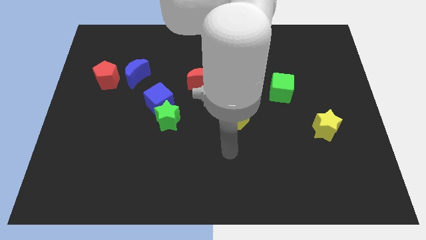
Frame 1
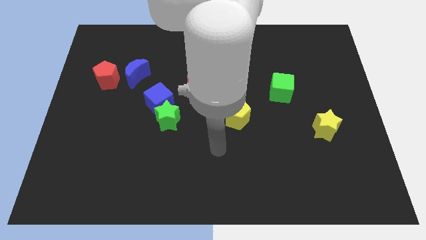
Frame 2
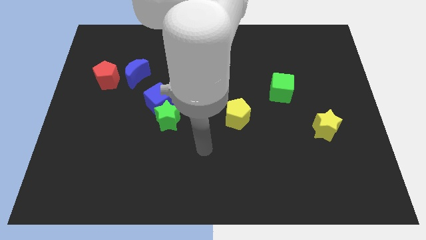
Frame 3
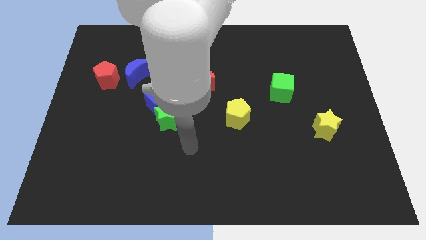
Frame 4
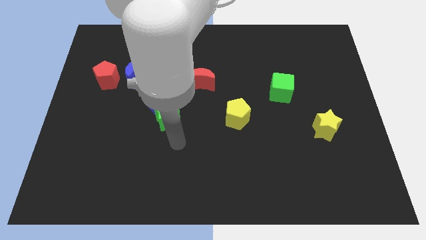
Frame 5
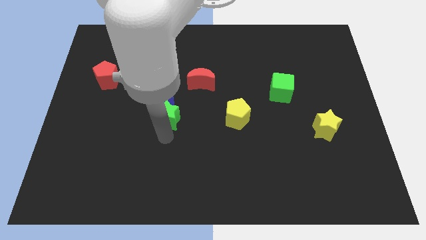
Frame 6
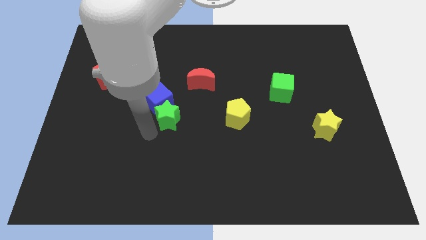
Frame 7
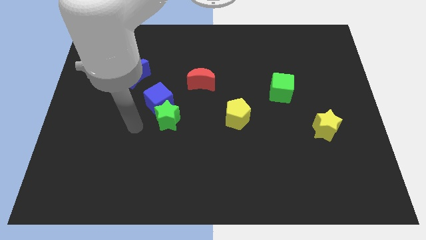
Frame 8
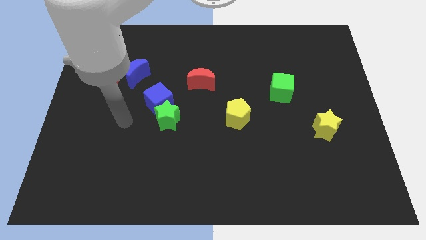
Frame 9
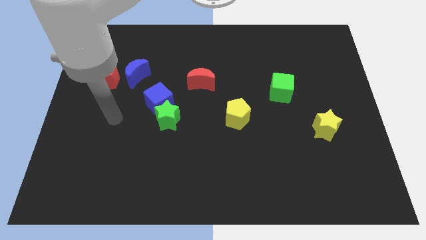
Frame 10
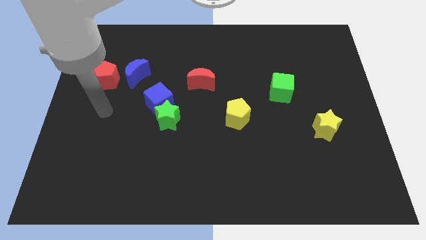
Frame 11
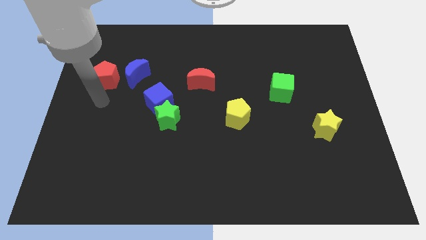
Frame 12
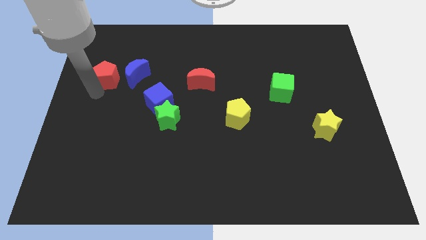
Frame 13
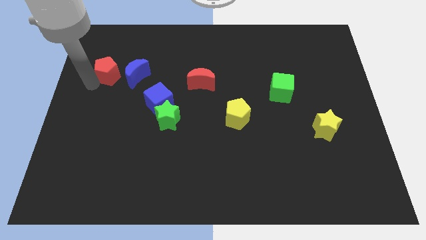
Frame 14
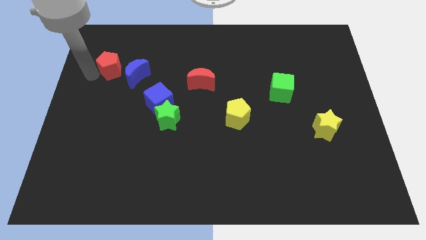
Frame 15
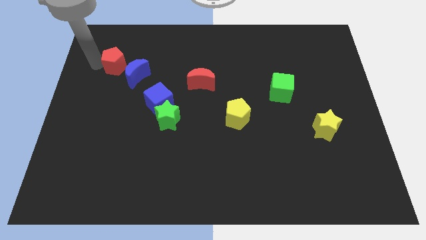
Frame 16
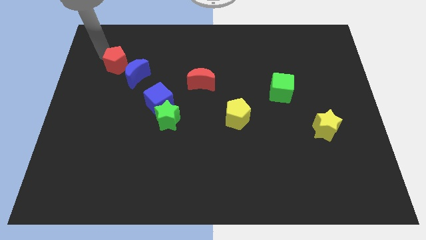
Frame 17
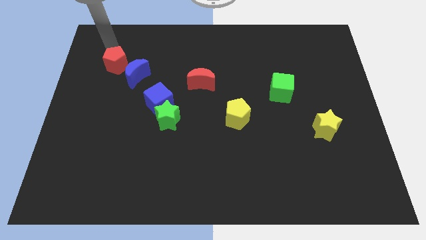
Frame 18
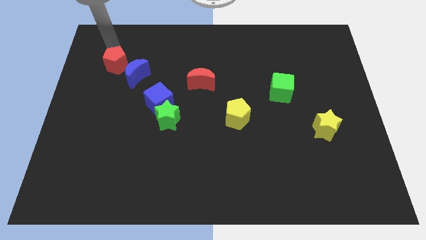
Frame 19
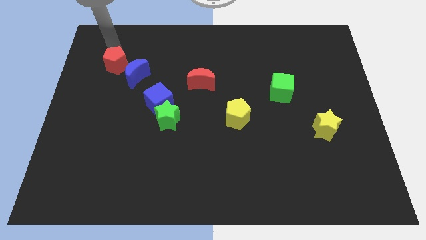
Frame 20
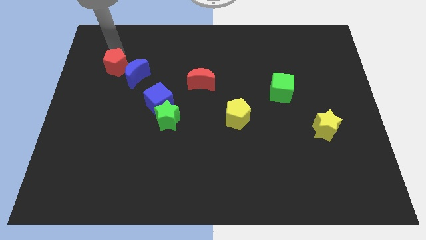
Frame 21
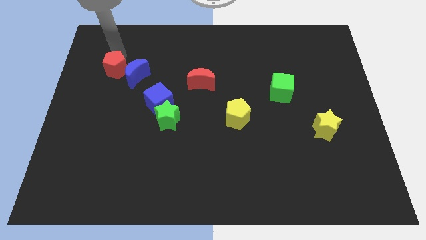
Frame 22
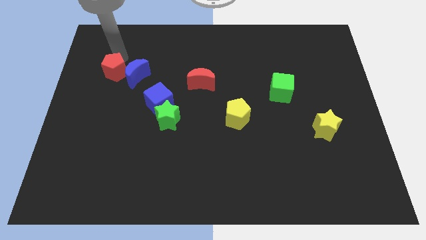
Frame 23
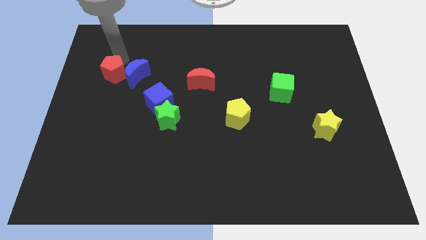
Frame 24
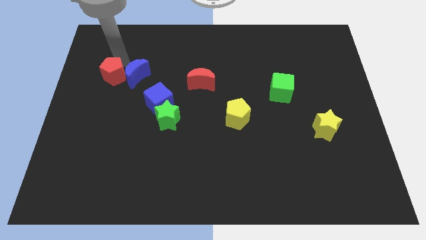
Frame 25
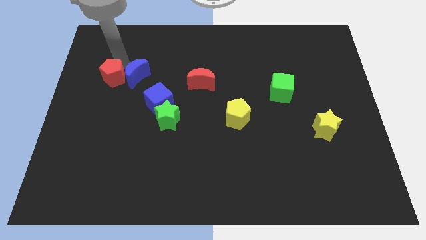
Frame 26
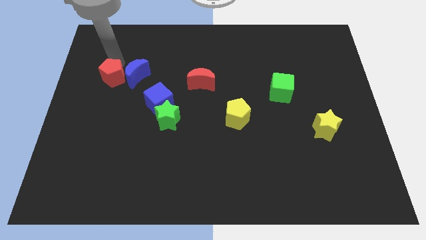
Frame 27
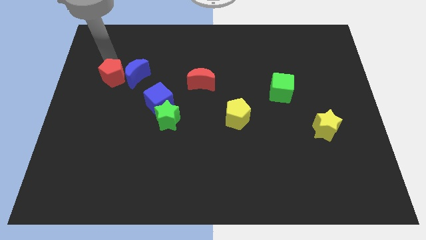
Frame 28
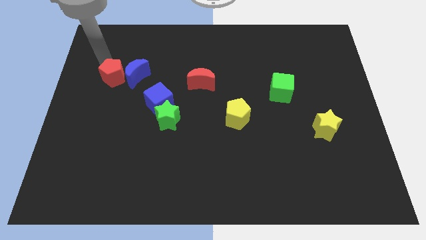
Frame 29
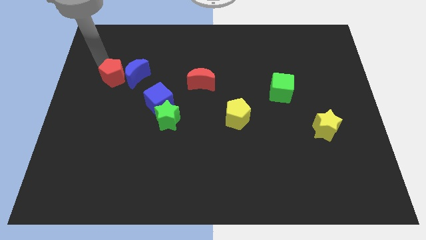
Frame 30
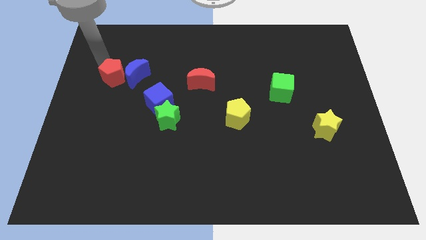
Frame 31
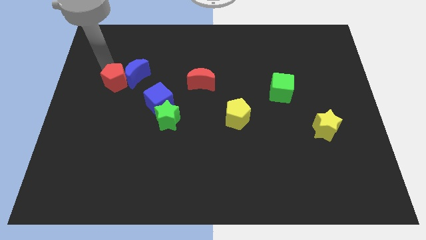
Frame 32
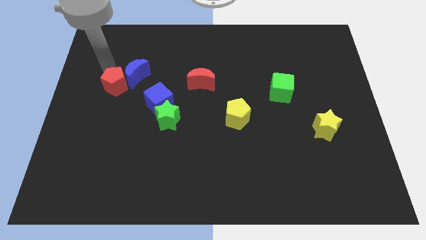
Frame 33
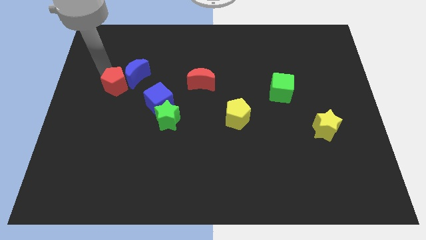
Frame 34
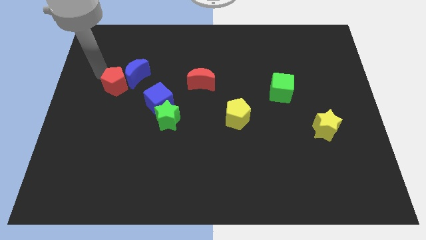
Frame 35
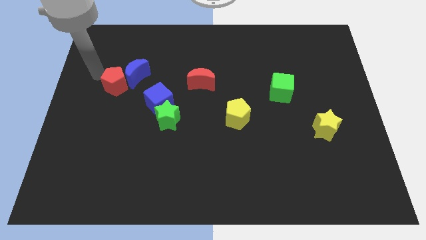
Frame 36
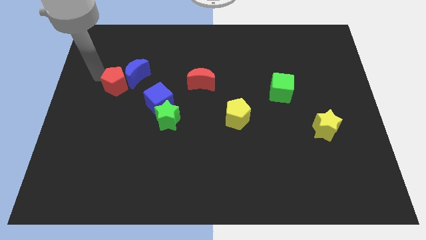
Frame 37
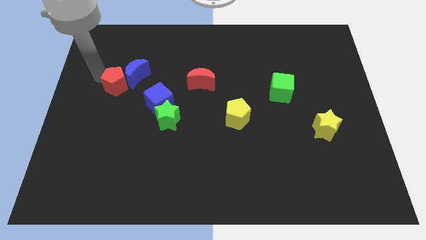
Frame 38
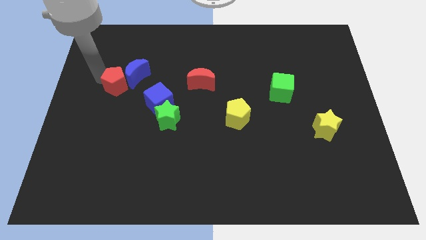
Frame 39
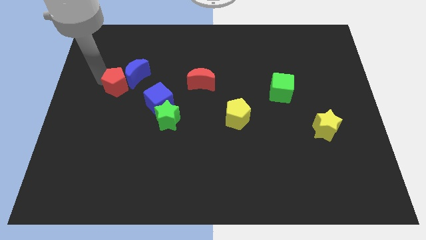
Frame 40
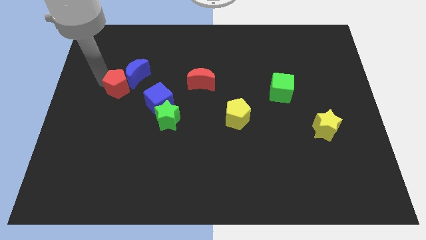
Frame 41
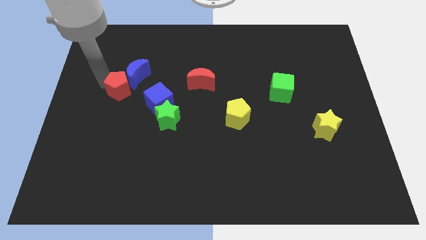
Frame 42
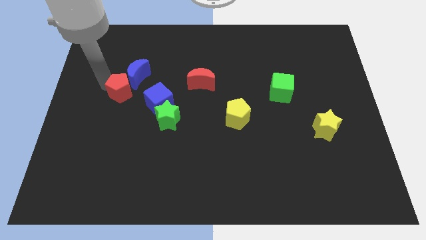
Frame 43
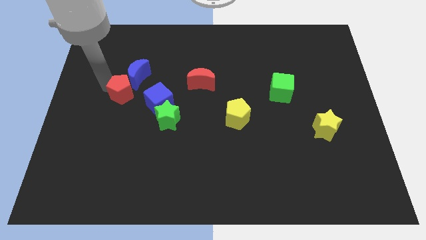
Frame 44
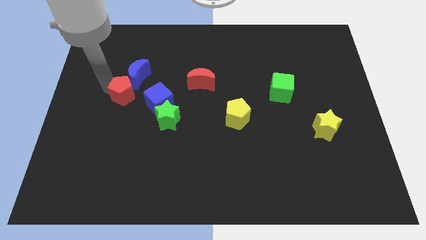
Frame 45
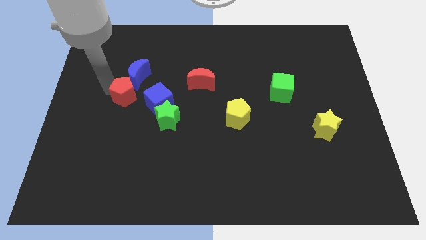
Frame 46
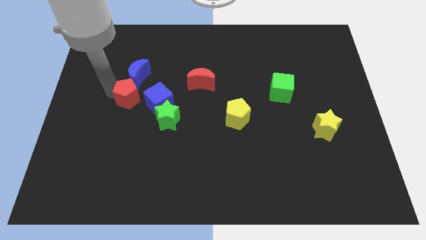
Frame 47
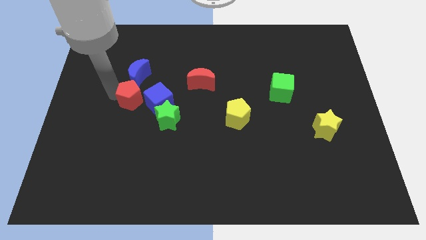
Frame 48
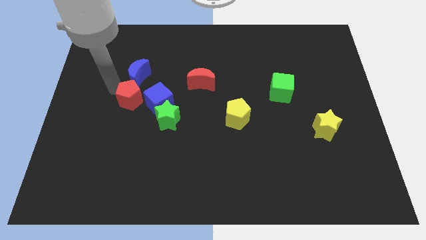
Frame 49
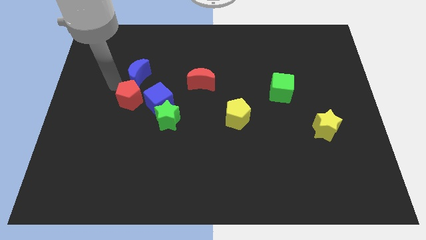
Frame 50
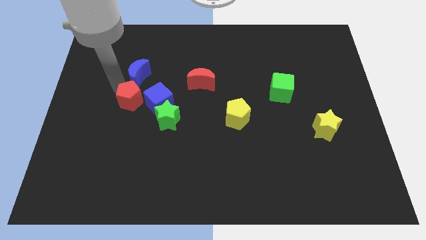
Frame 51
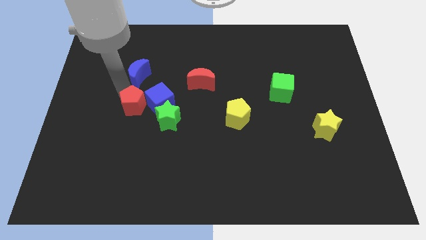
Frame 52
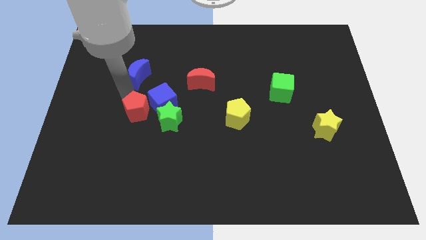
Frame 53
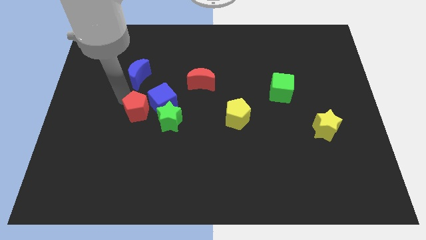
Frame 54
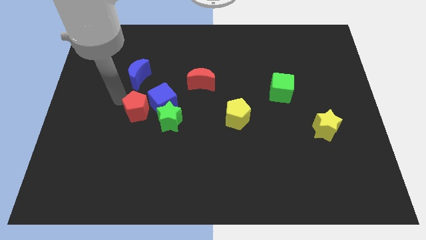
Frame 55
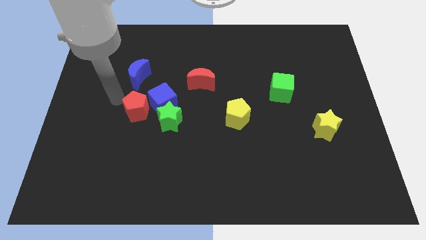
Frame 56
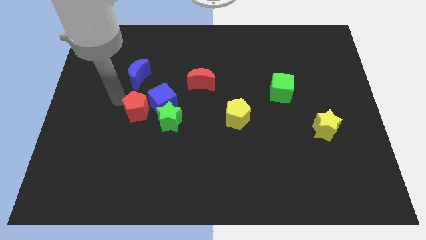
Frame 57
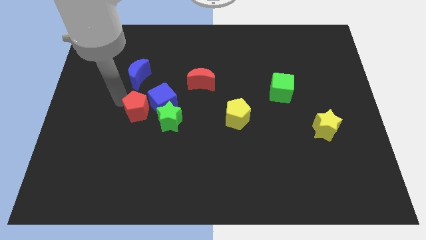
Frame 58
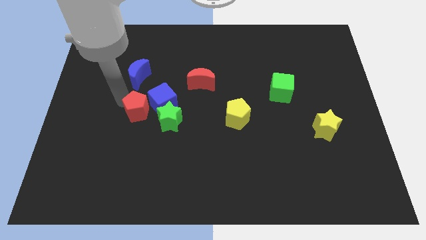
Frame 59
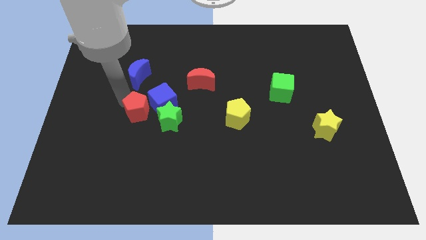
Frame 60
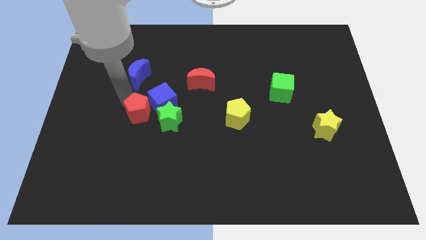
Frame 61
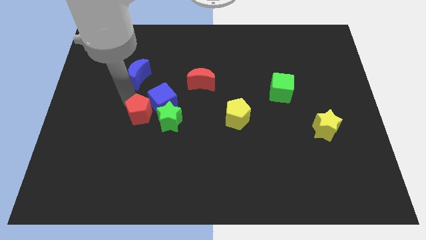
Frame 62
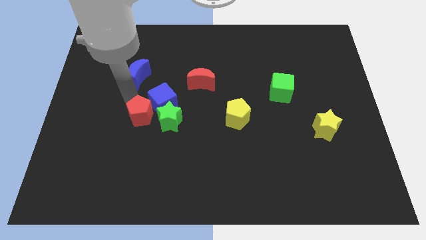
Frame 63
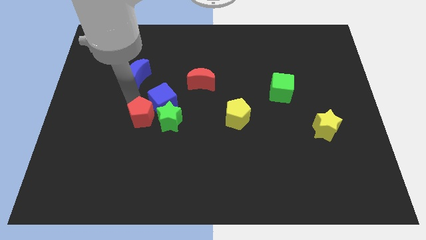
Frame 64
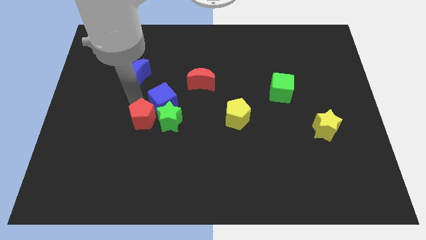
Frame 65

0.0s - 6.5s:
put the red pentagon towards the green star
